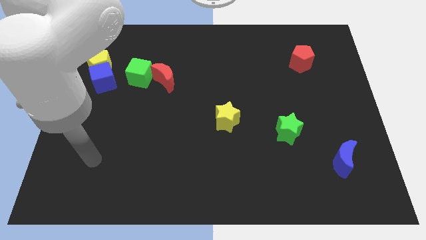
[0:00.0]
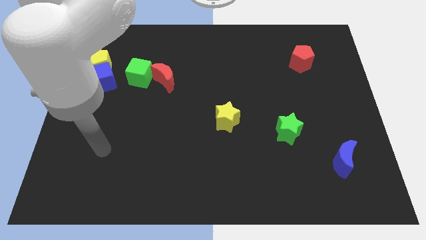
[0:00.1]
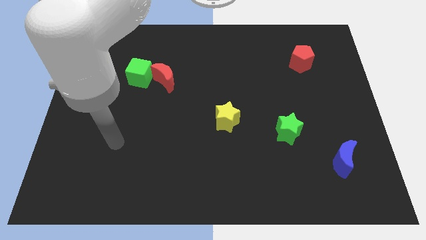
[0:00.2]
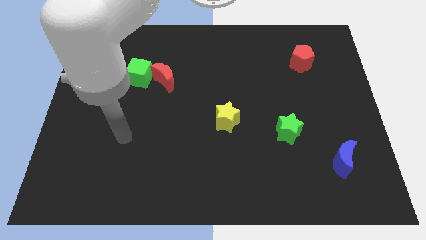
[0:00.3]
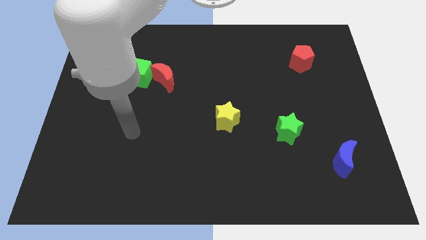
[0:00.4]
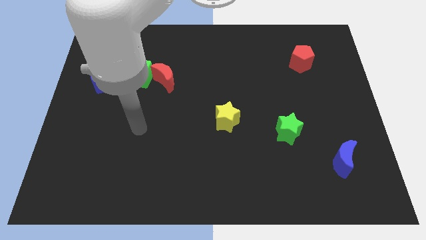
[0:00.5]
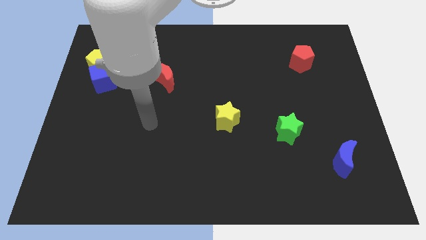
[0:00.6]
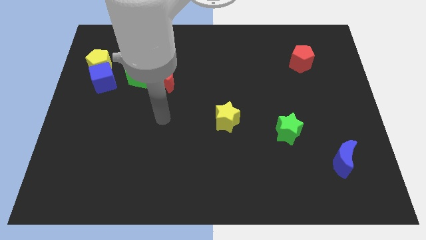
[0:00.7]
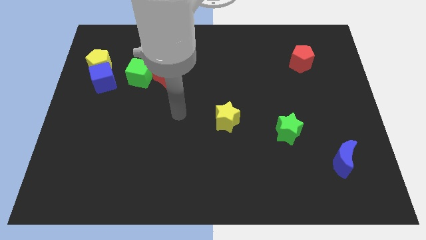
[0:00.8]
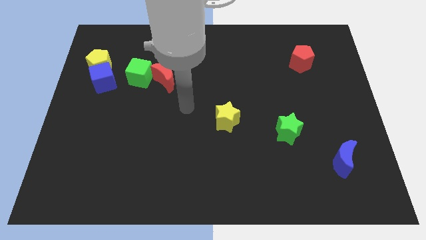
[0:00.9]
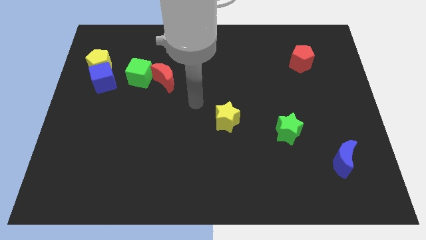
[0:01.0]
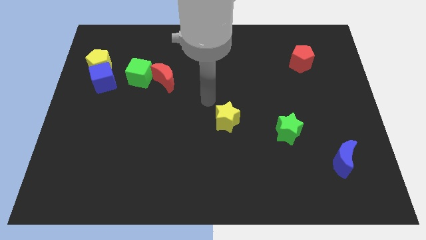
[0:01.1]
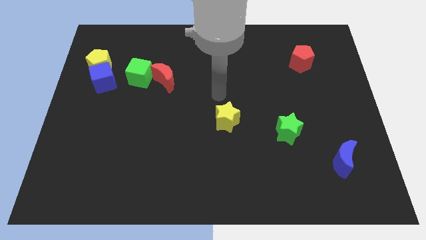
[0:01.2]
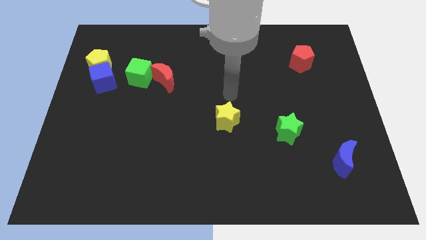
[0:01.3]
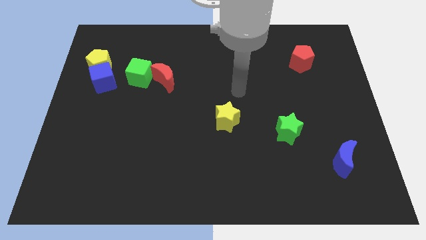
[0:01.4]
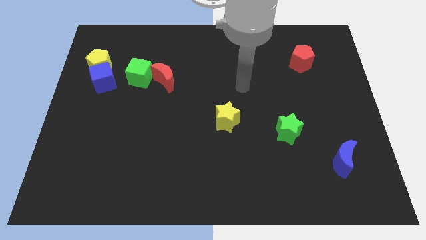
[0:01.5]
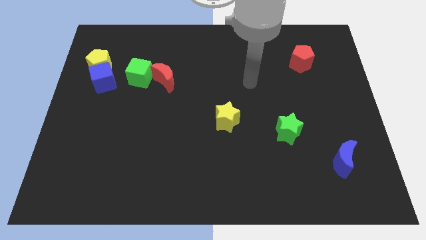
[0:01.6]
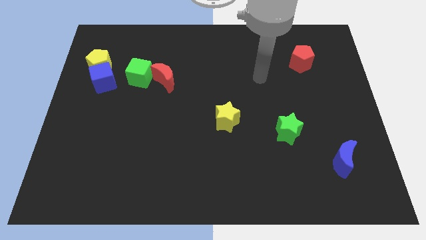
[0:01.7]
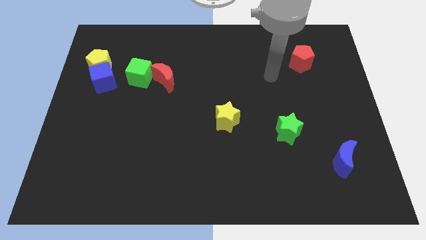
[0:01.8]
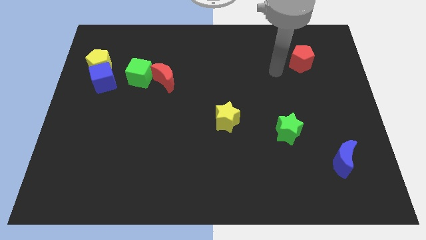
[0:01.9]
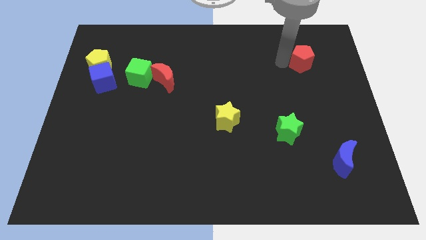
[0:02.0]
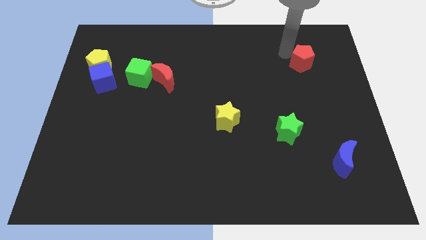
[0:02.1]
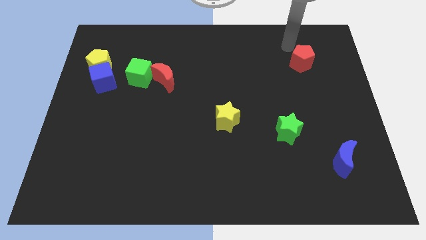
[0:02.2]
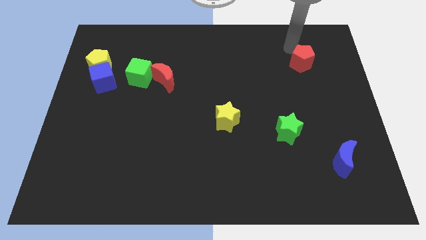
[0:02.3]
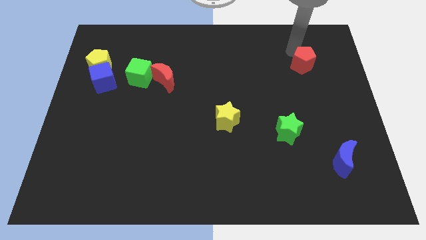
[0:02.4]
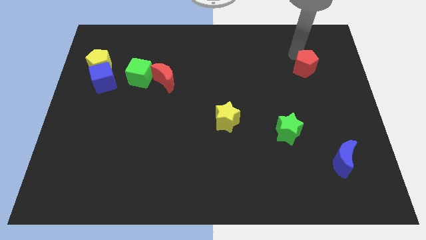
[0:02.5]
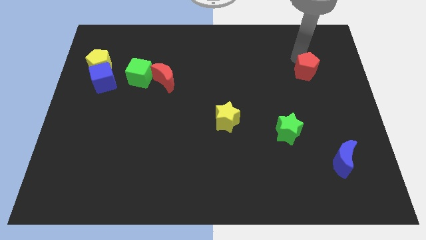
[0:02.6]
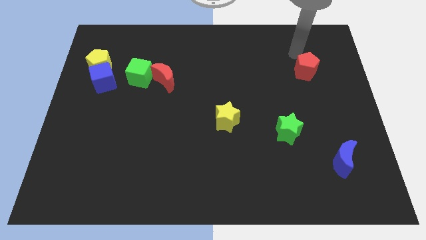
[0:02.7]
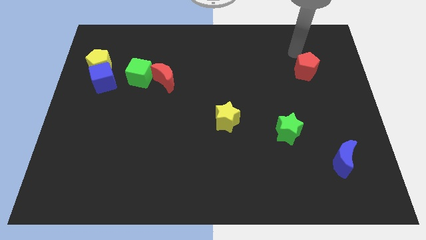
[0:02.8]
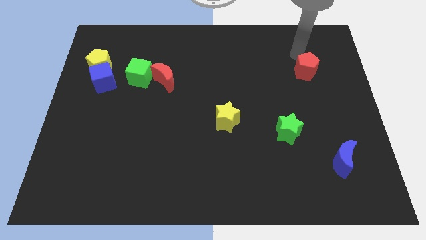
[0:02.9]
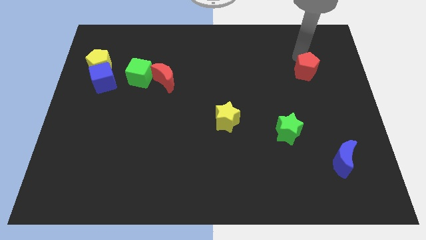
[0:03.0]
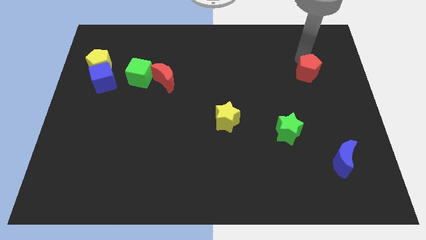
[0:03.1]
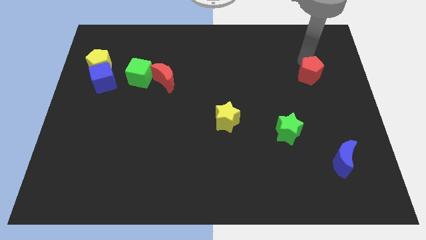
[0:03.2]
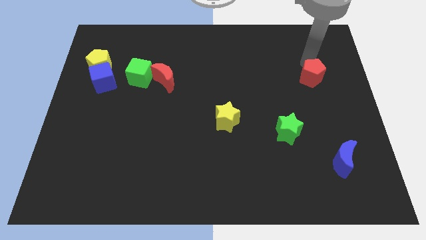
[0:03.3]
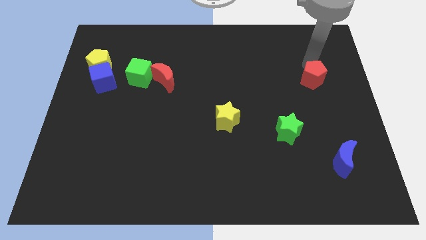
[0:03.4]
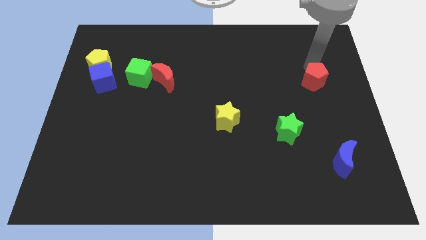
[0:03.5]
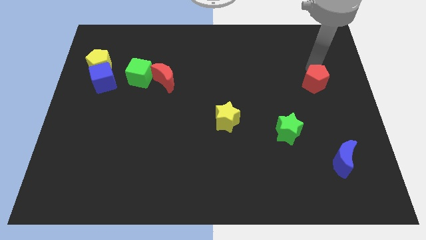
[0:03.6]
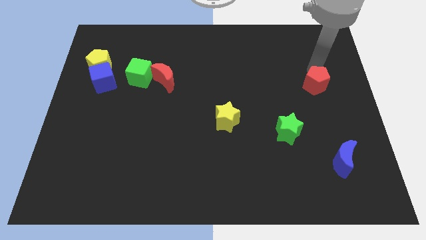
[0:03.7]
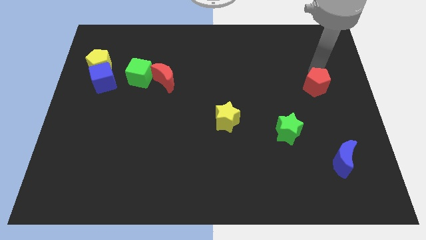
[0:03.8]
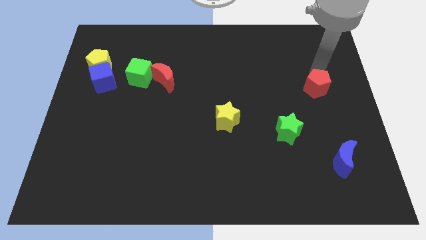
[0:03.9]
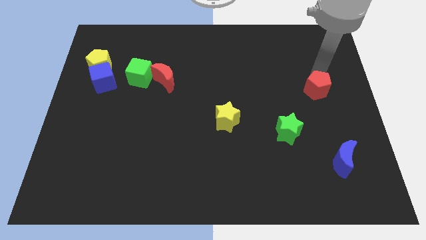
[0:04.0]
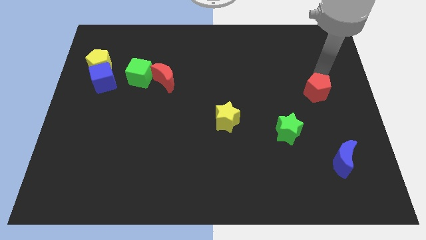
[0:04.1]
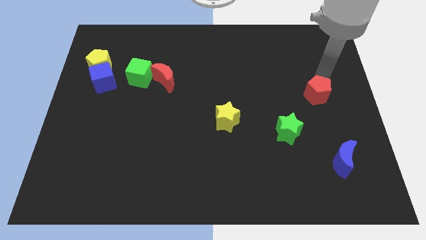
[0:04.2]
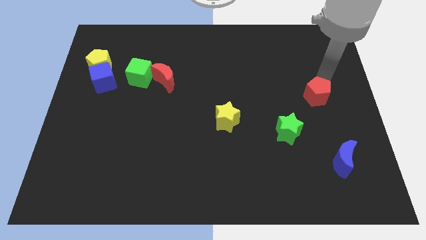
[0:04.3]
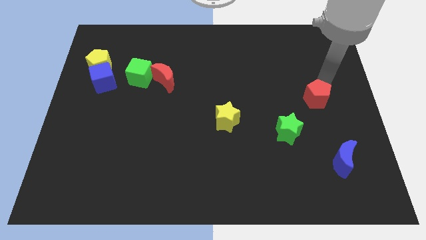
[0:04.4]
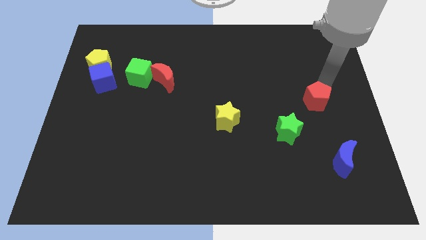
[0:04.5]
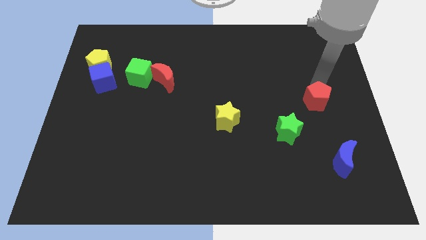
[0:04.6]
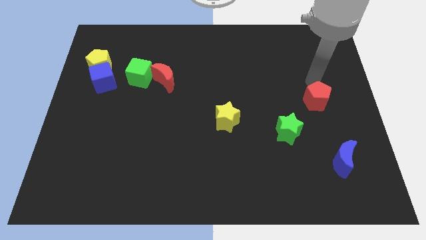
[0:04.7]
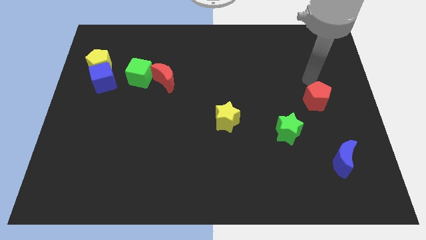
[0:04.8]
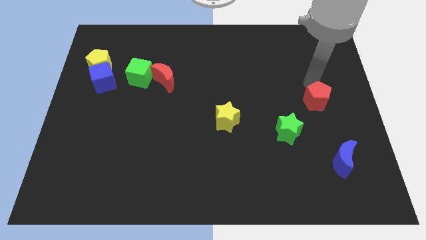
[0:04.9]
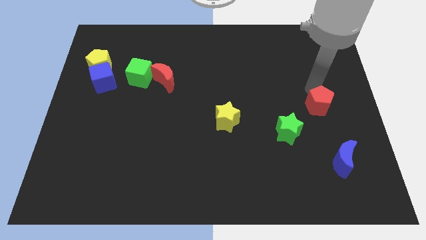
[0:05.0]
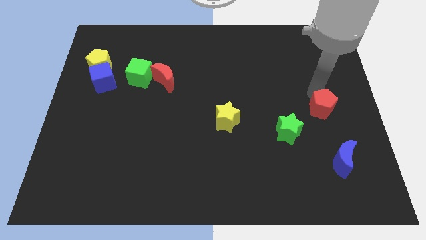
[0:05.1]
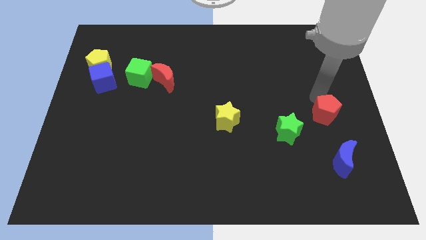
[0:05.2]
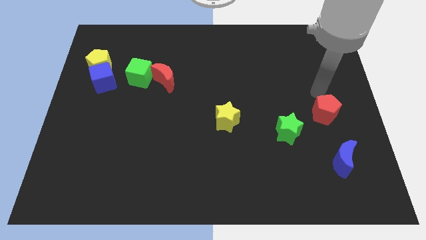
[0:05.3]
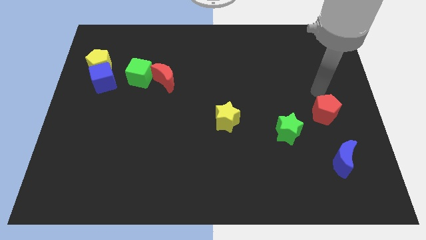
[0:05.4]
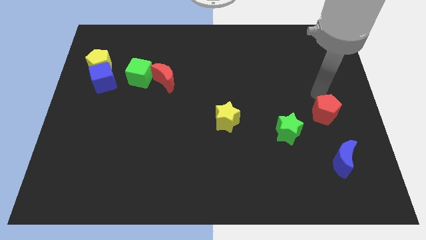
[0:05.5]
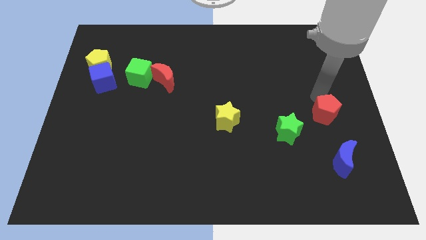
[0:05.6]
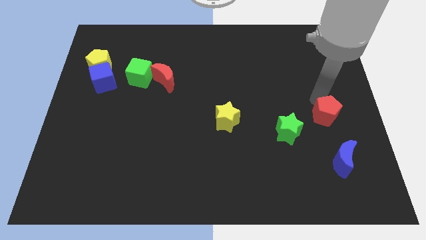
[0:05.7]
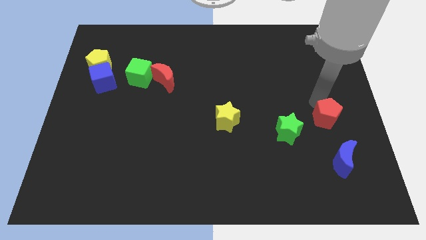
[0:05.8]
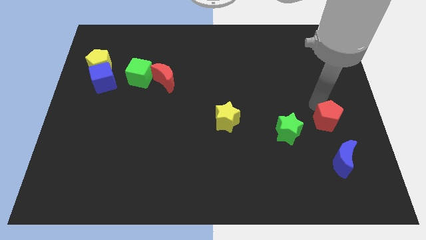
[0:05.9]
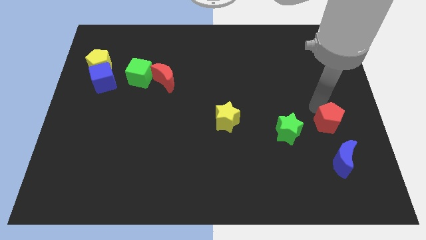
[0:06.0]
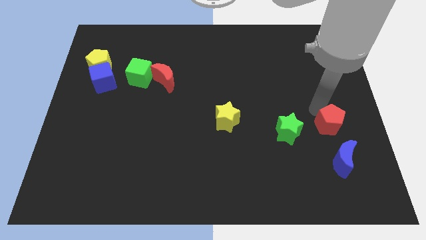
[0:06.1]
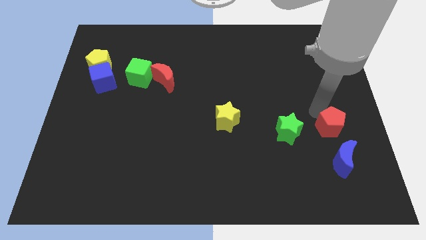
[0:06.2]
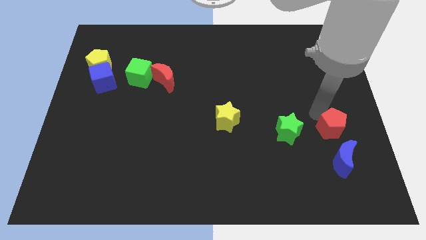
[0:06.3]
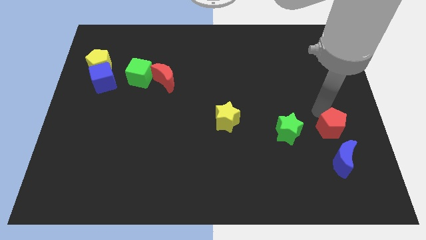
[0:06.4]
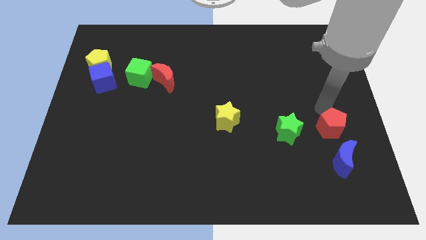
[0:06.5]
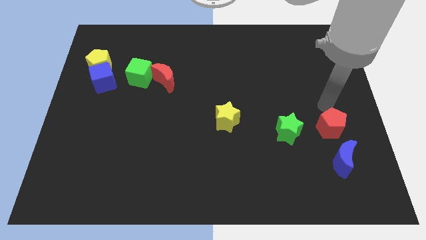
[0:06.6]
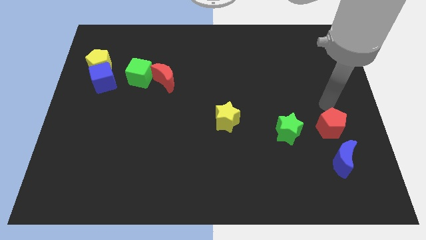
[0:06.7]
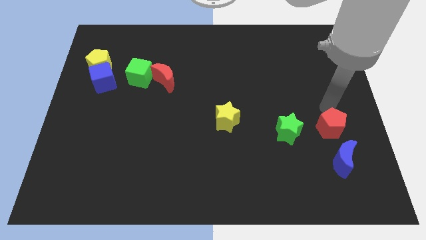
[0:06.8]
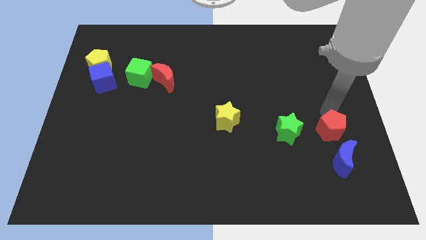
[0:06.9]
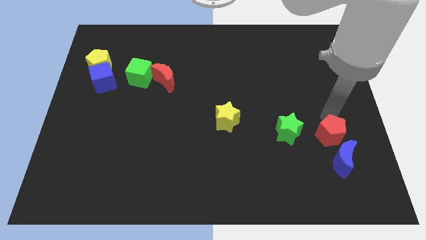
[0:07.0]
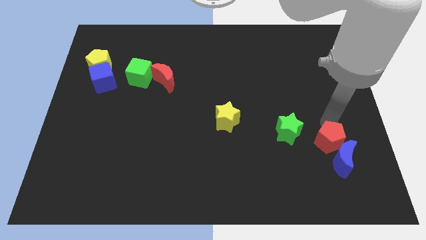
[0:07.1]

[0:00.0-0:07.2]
push the red pentagon next to the blue moon

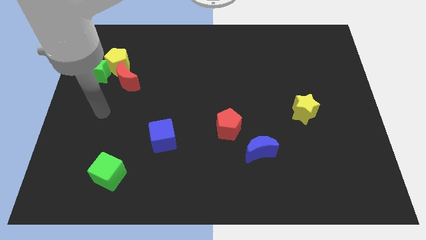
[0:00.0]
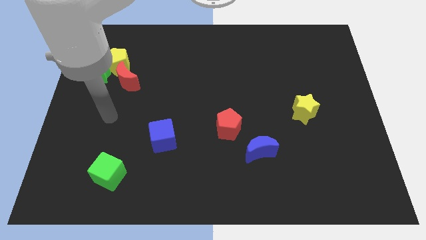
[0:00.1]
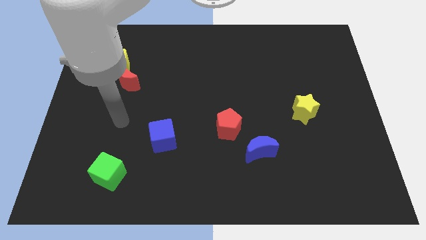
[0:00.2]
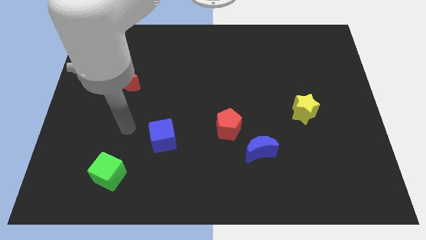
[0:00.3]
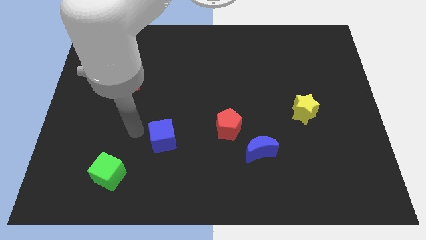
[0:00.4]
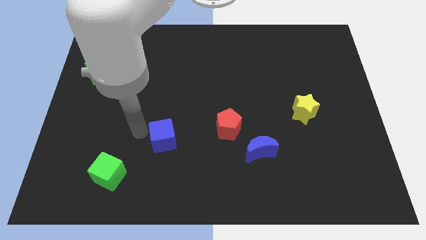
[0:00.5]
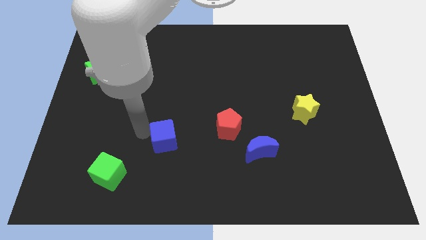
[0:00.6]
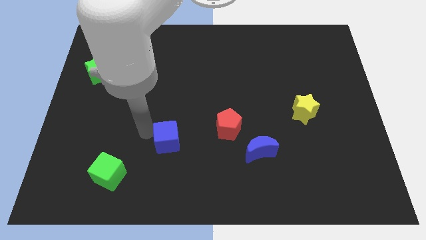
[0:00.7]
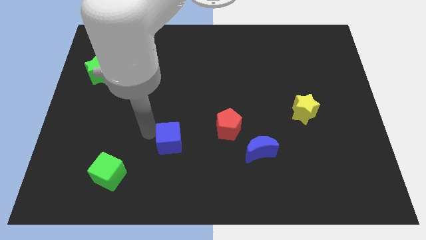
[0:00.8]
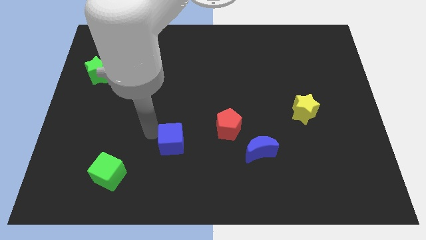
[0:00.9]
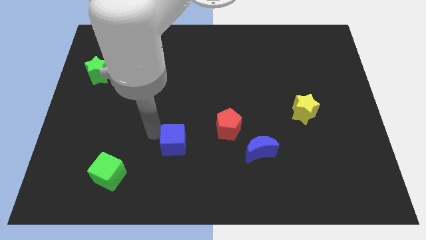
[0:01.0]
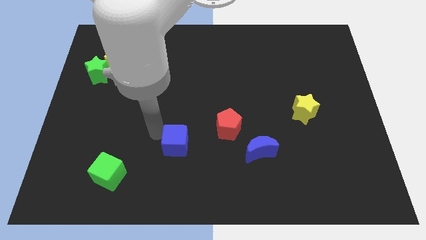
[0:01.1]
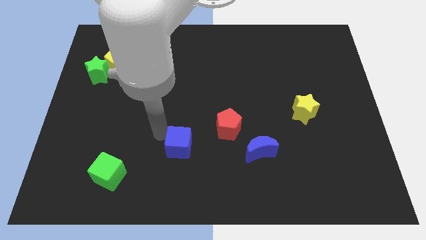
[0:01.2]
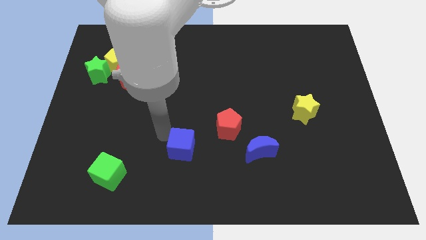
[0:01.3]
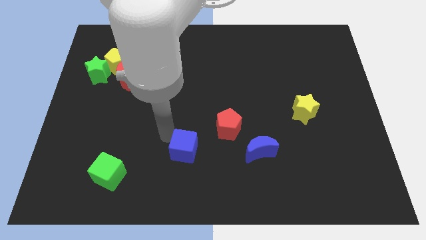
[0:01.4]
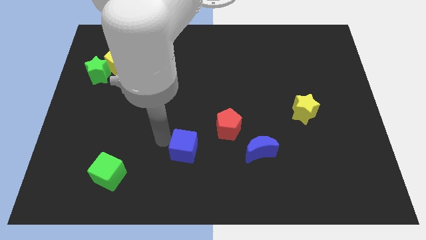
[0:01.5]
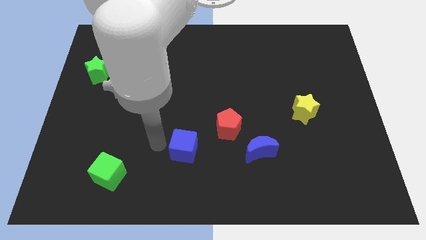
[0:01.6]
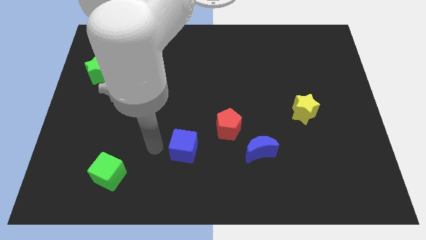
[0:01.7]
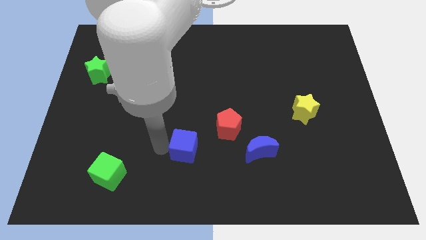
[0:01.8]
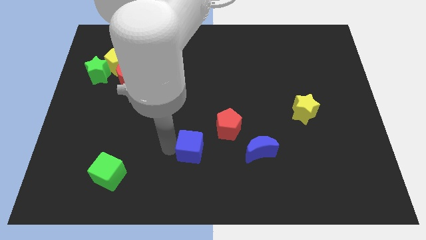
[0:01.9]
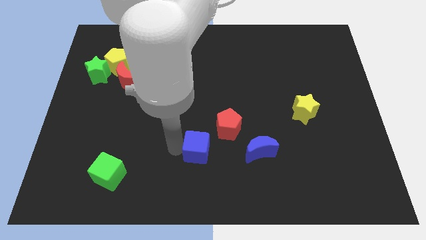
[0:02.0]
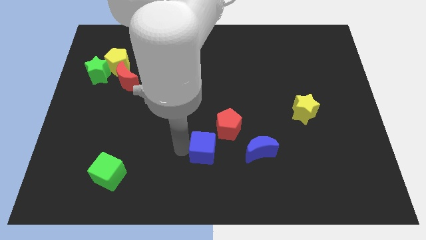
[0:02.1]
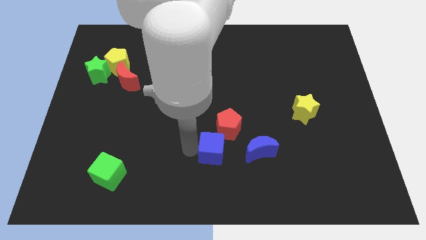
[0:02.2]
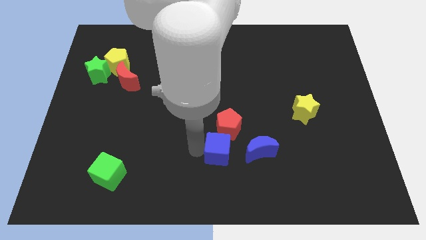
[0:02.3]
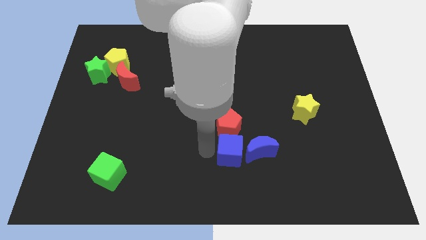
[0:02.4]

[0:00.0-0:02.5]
put the blue cube to the blue moon
